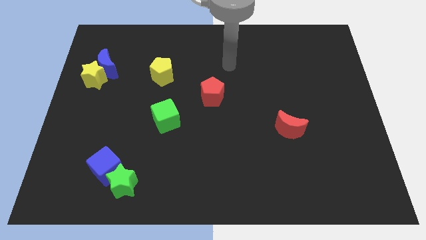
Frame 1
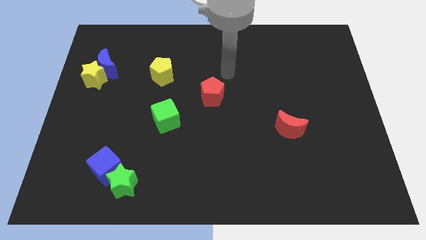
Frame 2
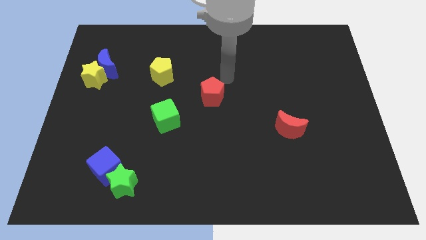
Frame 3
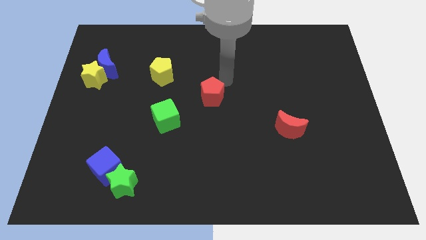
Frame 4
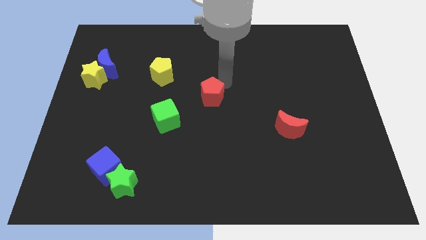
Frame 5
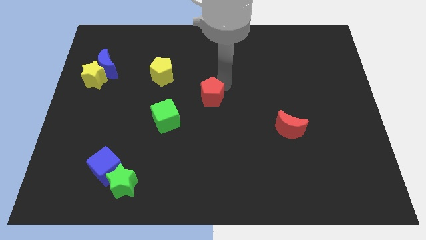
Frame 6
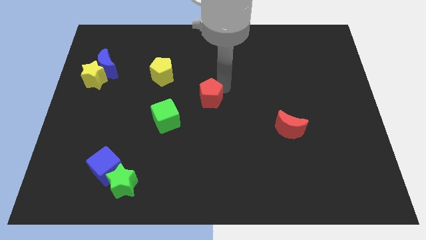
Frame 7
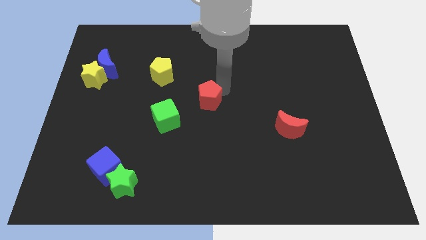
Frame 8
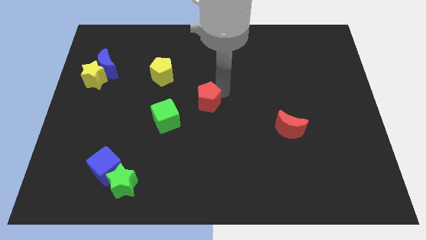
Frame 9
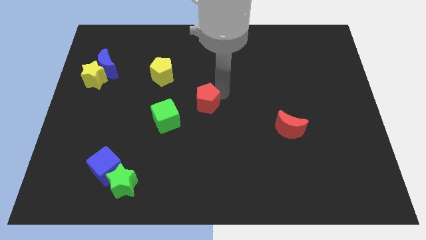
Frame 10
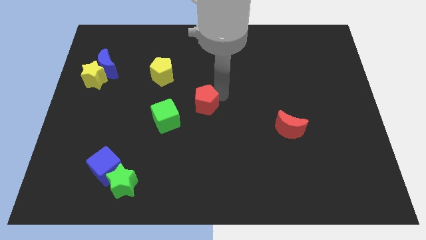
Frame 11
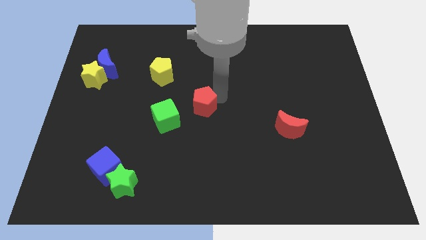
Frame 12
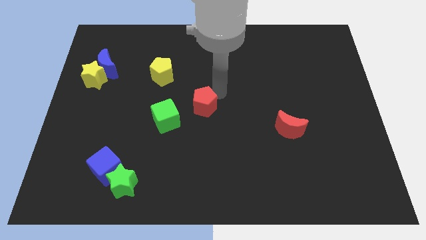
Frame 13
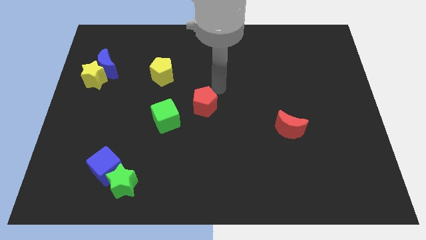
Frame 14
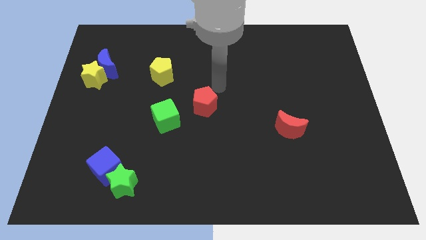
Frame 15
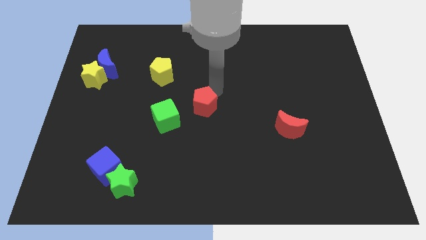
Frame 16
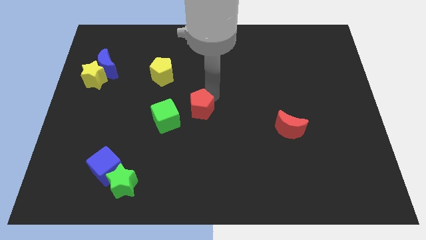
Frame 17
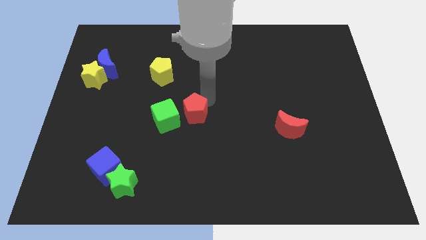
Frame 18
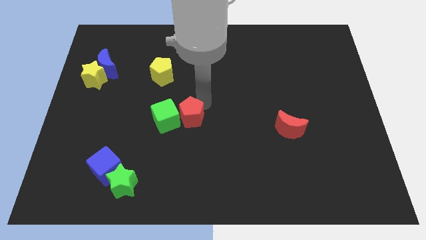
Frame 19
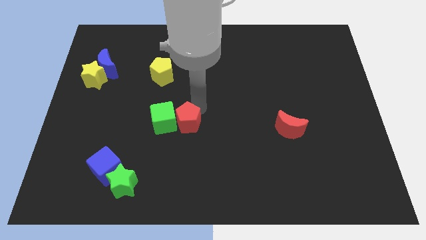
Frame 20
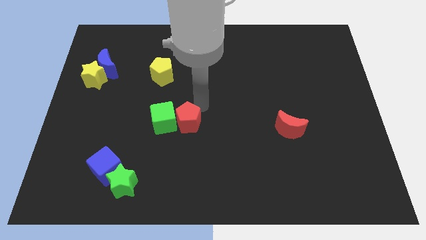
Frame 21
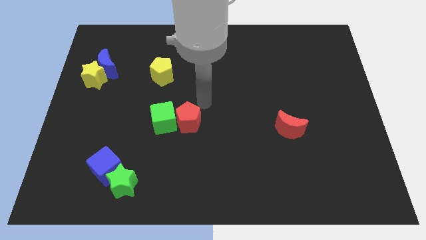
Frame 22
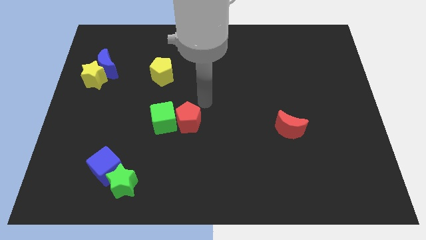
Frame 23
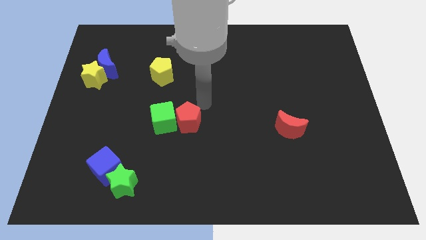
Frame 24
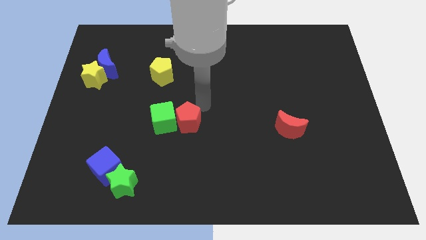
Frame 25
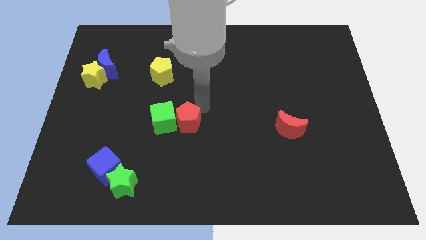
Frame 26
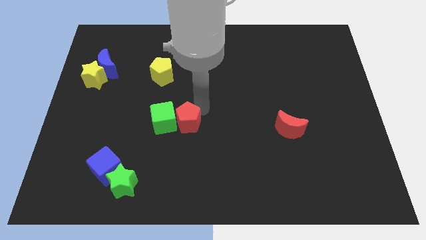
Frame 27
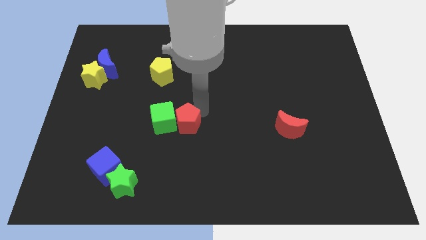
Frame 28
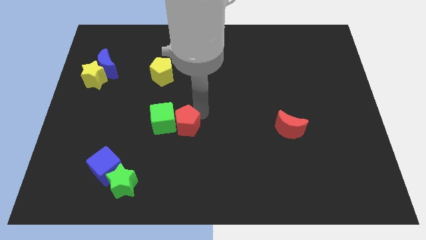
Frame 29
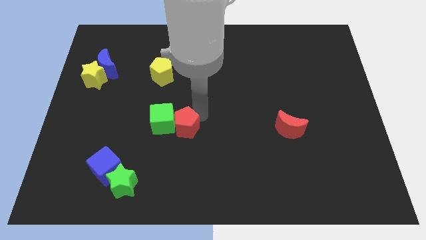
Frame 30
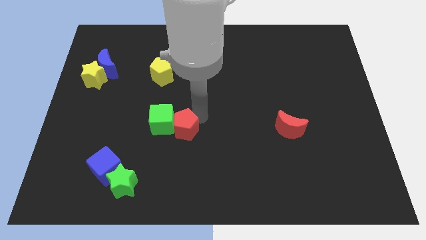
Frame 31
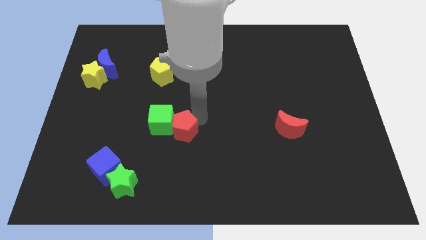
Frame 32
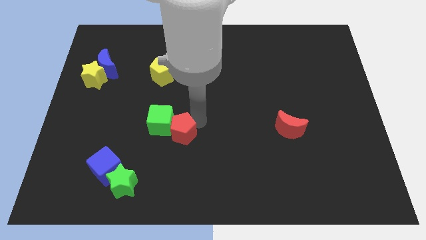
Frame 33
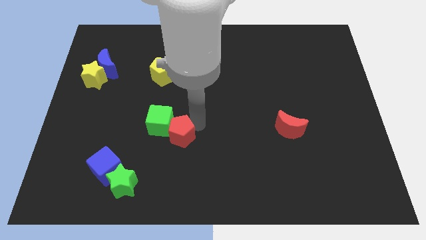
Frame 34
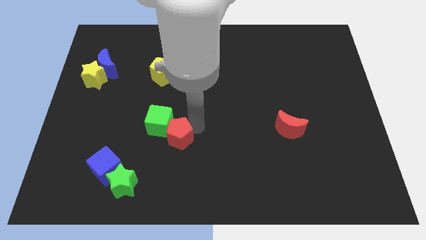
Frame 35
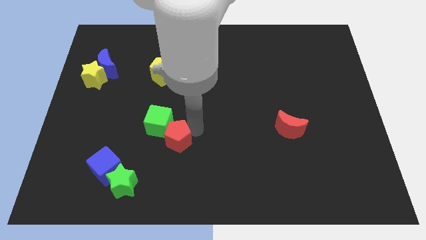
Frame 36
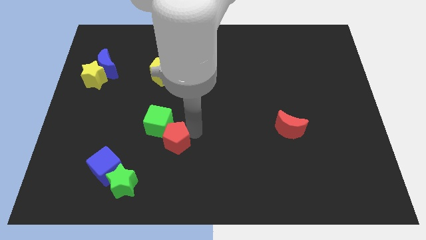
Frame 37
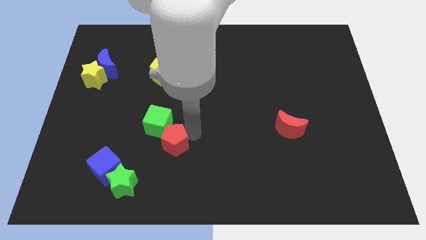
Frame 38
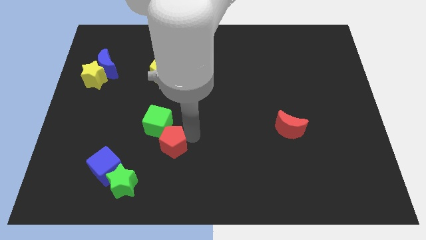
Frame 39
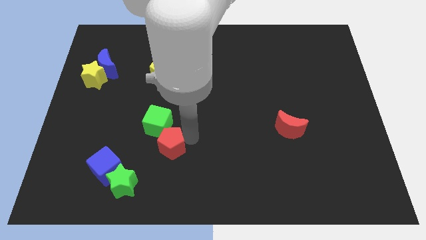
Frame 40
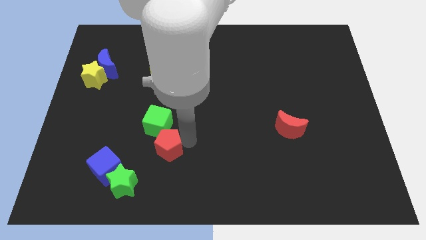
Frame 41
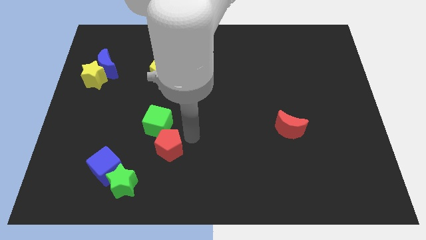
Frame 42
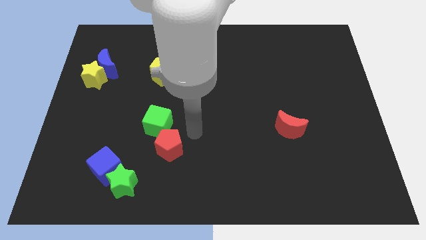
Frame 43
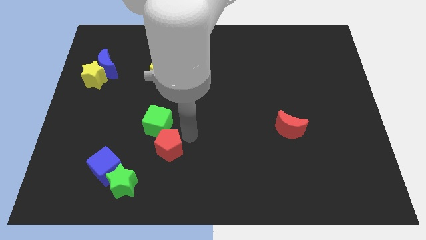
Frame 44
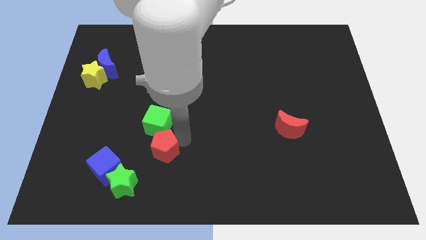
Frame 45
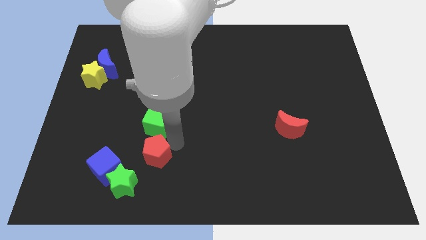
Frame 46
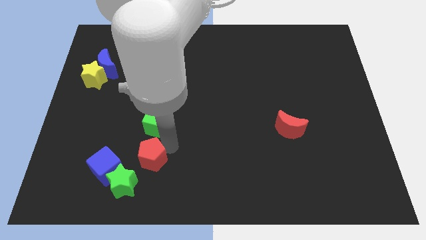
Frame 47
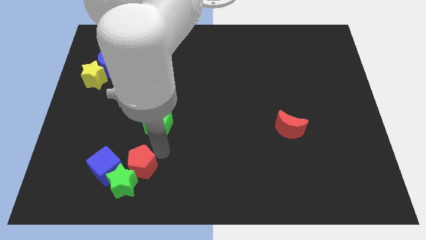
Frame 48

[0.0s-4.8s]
move the red pentagon next to the green star

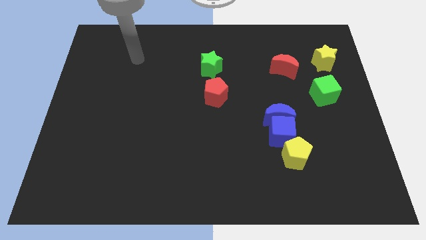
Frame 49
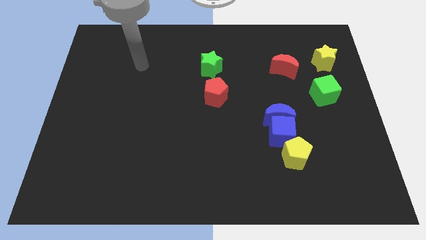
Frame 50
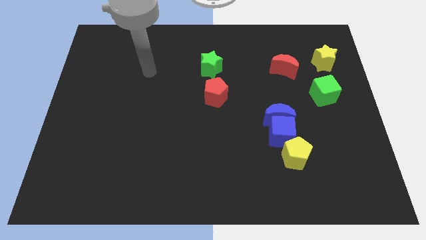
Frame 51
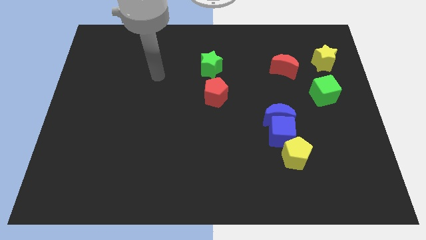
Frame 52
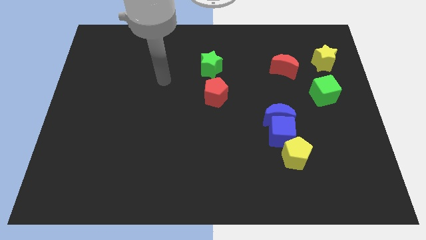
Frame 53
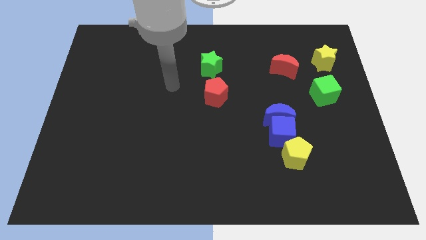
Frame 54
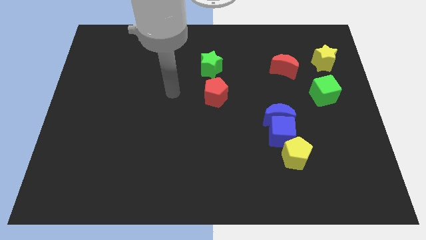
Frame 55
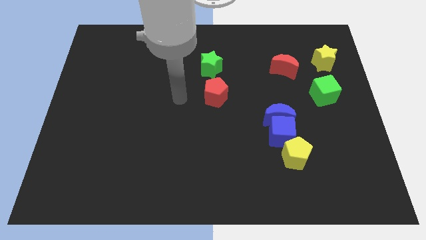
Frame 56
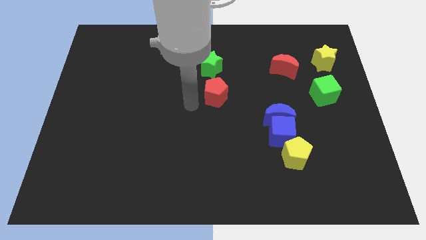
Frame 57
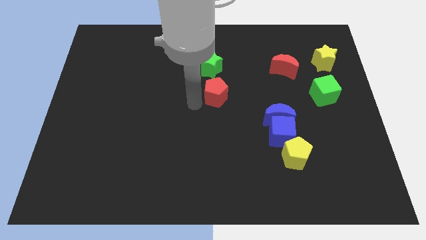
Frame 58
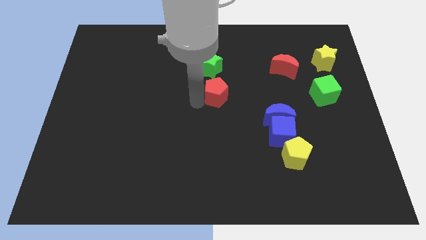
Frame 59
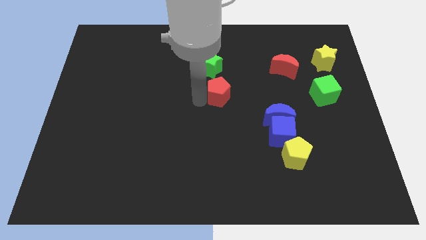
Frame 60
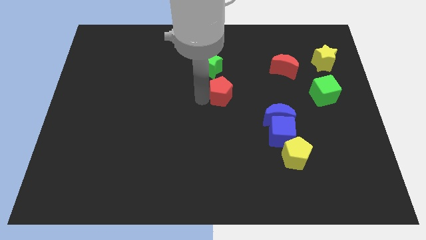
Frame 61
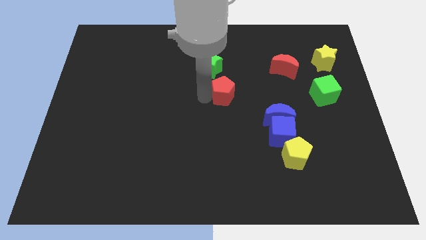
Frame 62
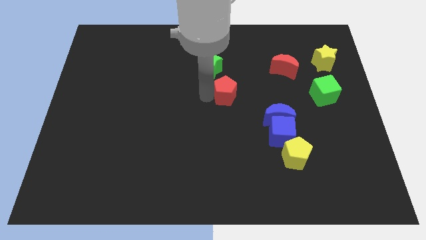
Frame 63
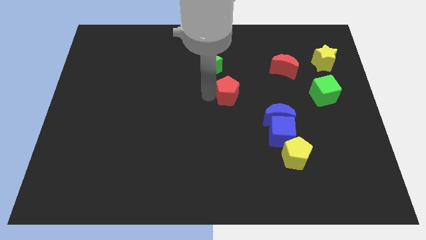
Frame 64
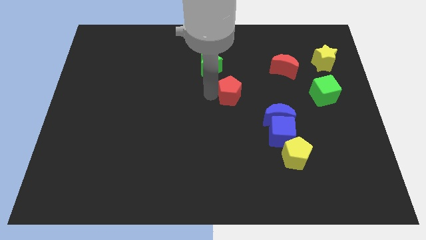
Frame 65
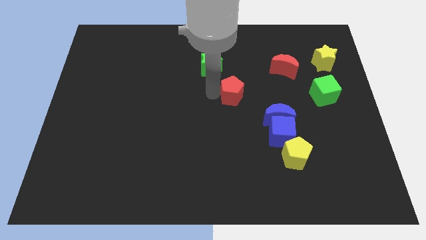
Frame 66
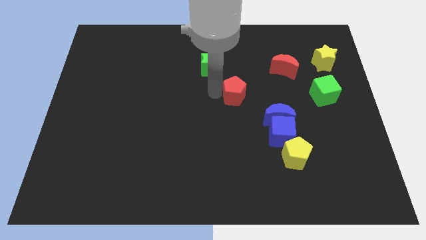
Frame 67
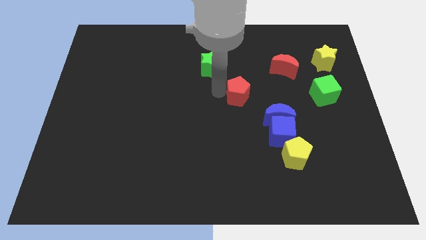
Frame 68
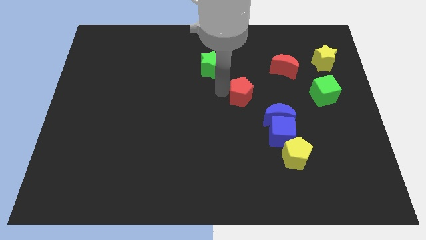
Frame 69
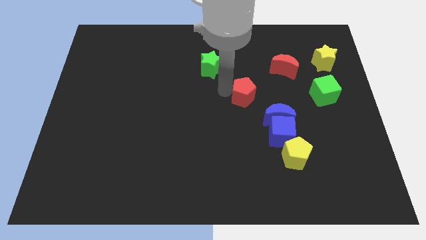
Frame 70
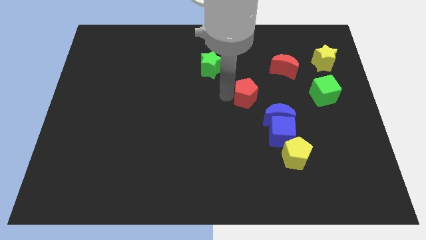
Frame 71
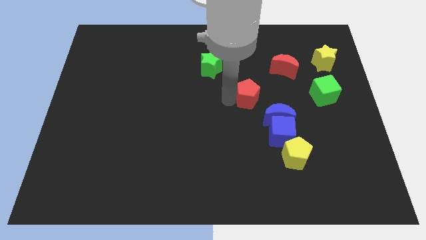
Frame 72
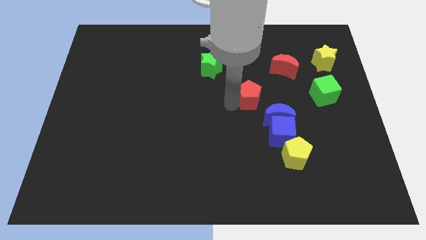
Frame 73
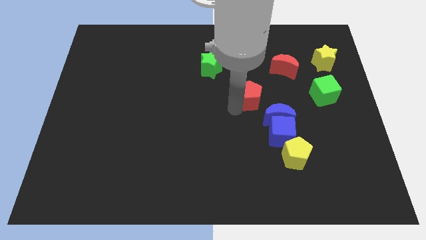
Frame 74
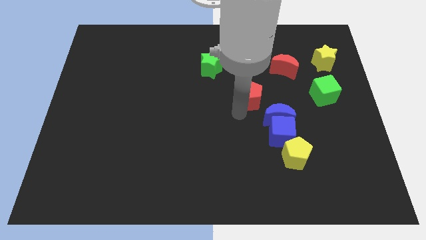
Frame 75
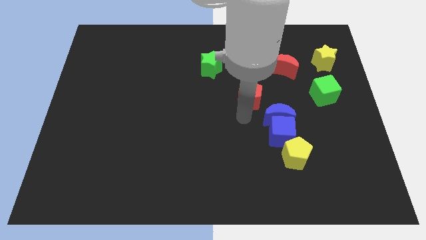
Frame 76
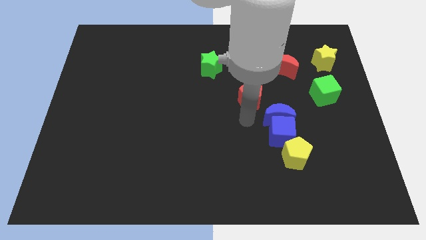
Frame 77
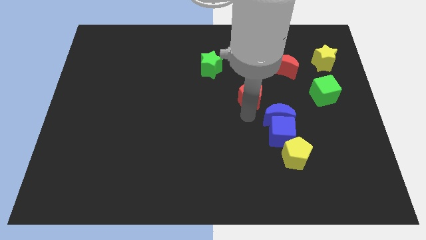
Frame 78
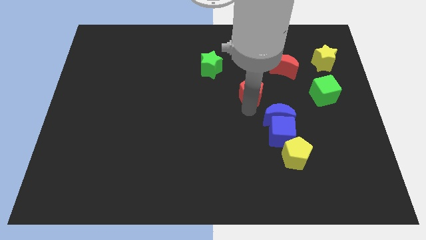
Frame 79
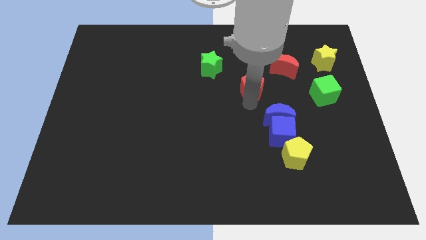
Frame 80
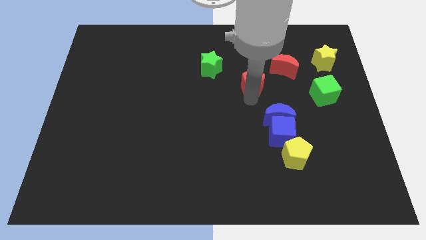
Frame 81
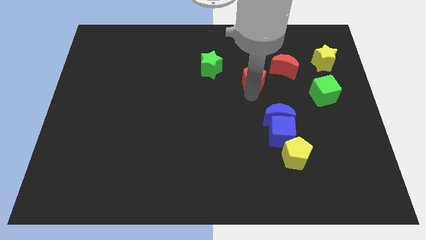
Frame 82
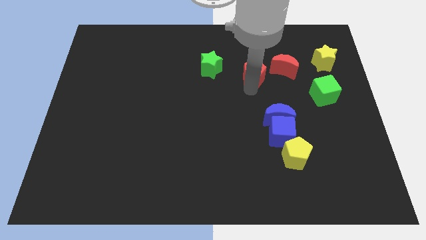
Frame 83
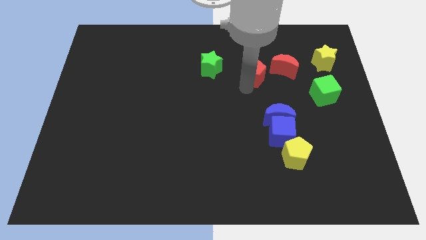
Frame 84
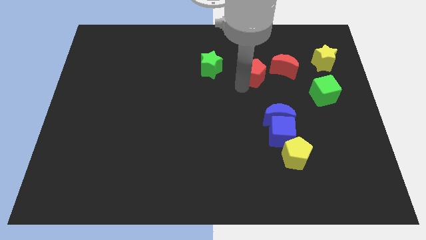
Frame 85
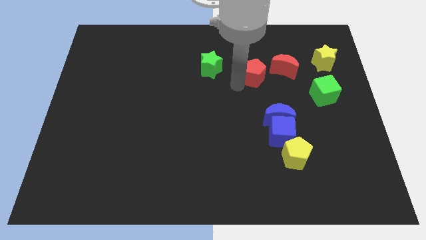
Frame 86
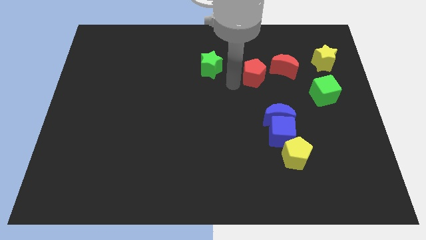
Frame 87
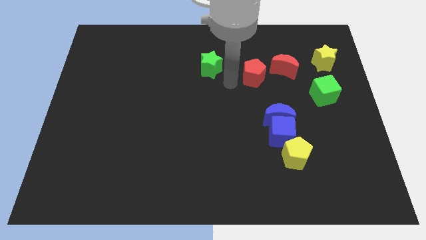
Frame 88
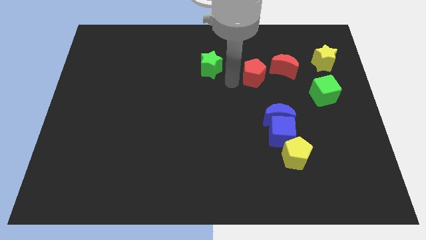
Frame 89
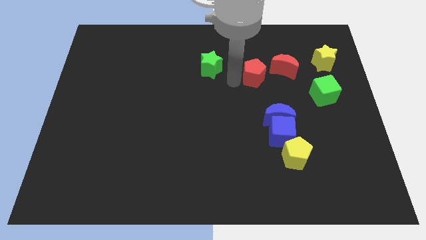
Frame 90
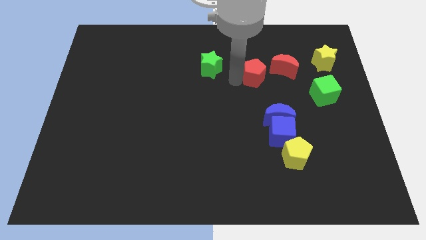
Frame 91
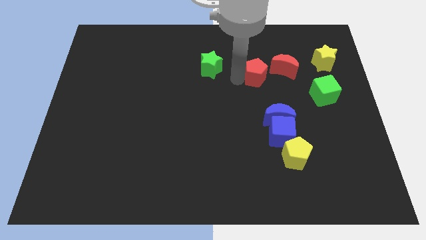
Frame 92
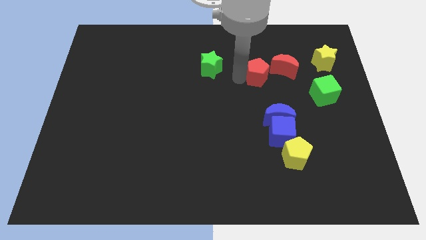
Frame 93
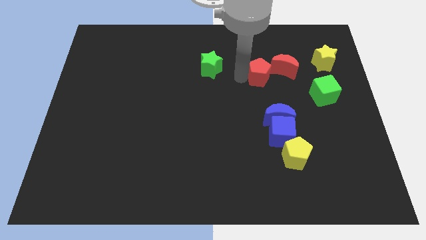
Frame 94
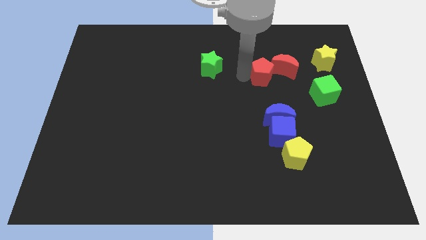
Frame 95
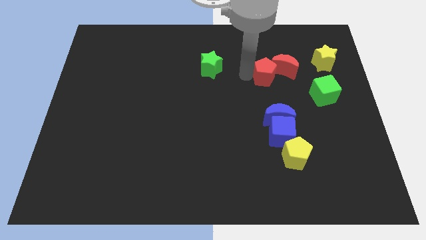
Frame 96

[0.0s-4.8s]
put the red pentagon close to the red moon
